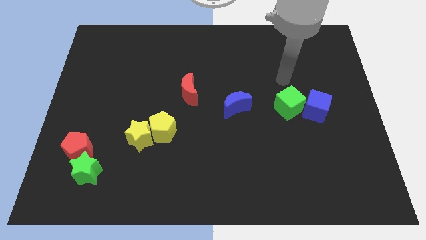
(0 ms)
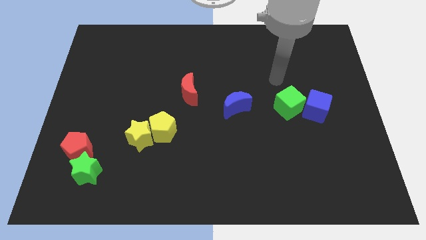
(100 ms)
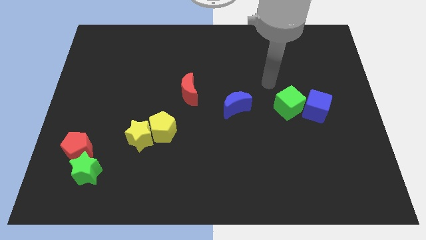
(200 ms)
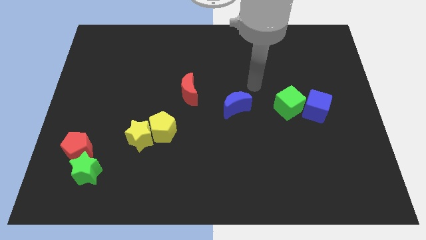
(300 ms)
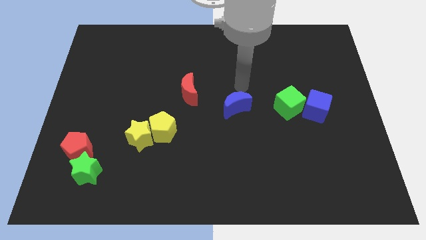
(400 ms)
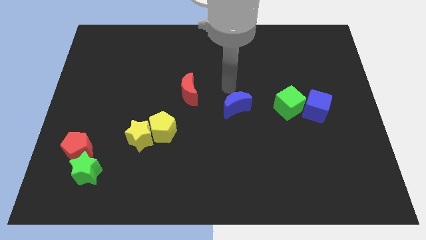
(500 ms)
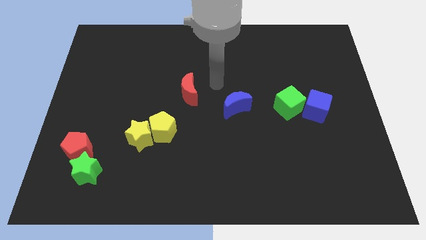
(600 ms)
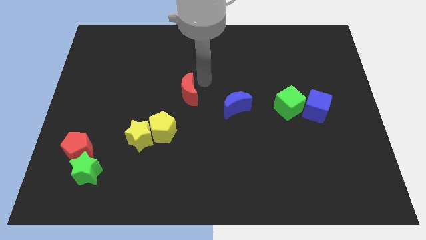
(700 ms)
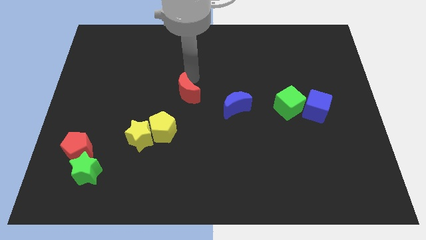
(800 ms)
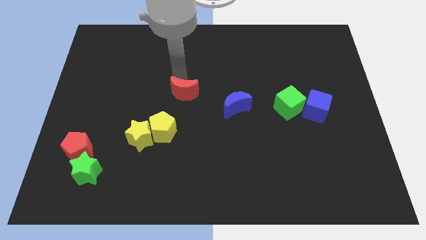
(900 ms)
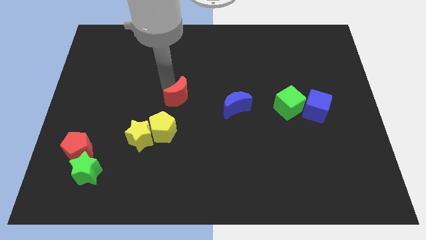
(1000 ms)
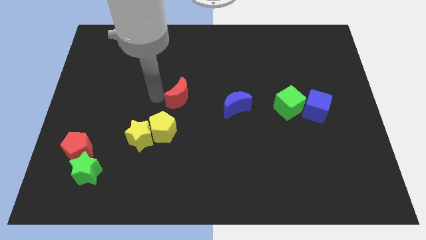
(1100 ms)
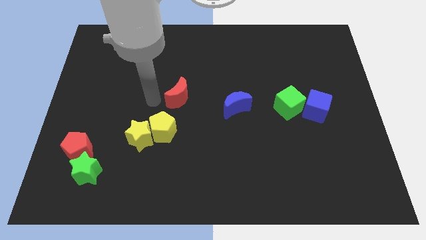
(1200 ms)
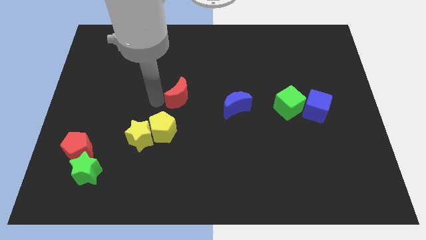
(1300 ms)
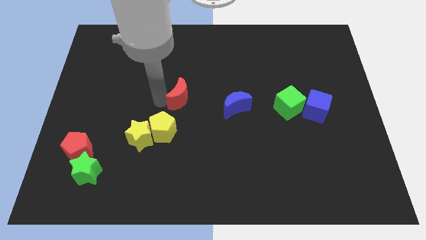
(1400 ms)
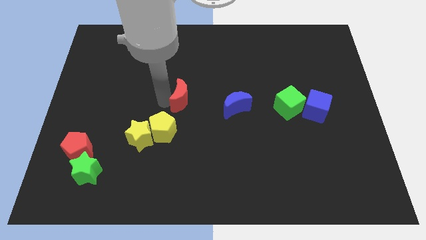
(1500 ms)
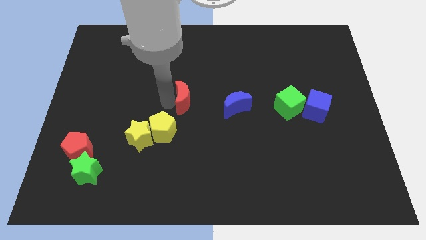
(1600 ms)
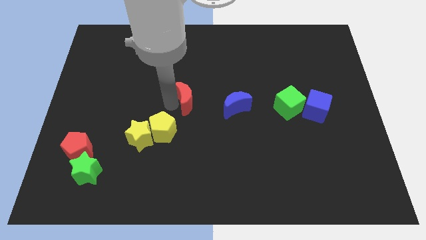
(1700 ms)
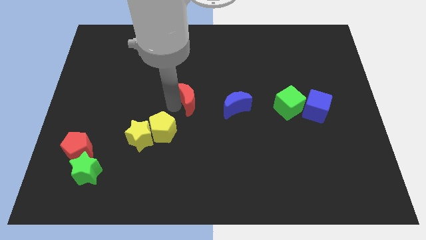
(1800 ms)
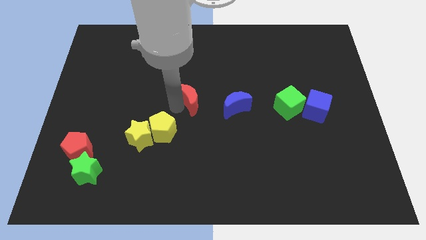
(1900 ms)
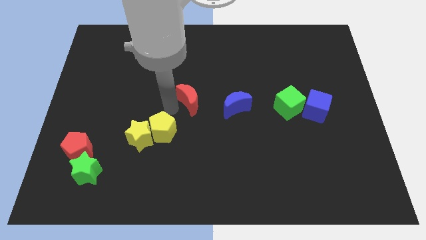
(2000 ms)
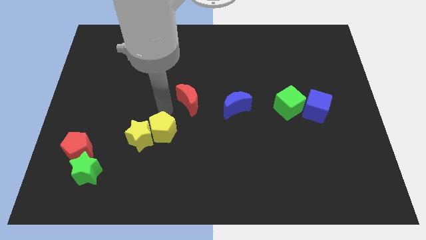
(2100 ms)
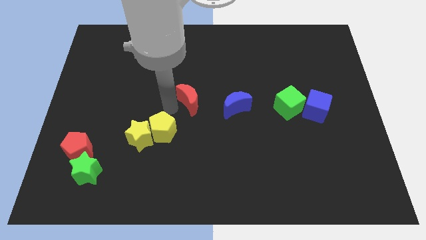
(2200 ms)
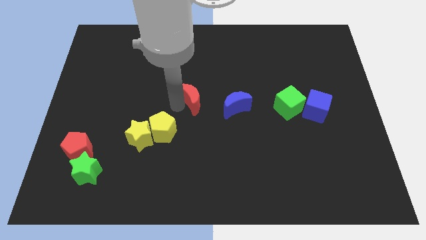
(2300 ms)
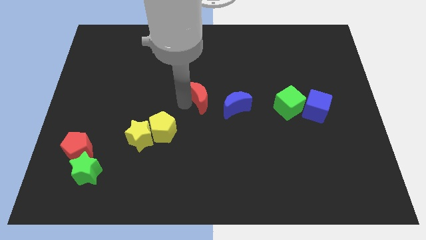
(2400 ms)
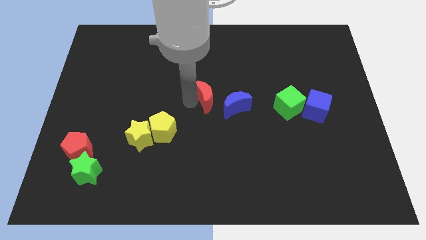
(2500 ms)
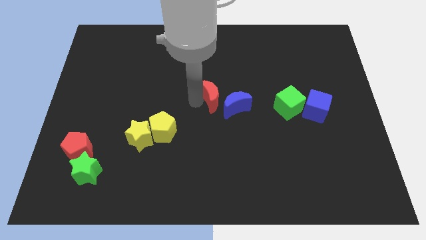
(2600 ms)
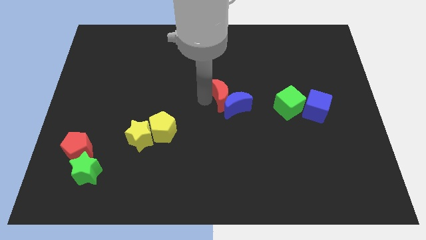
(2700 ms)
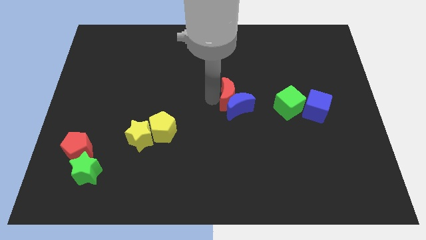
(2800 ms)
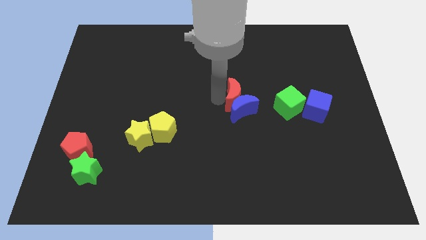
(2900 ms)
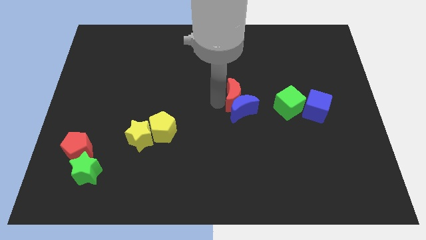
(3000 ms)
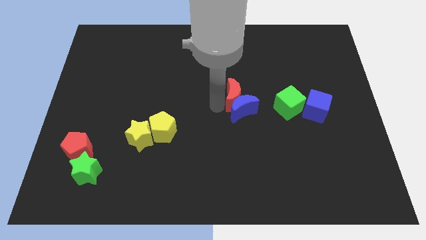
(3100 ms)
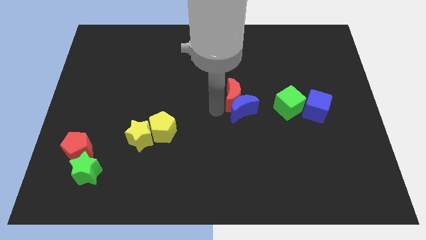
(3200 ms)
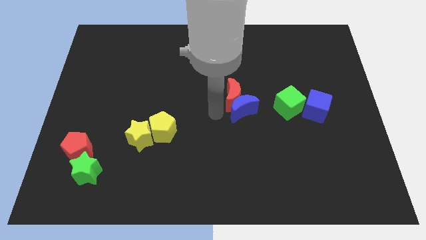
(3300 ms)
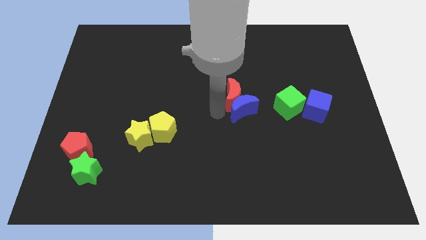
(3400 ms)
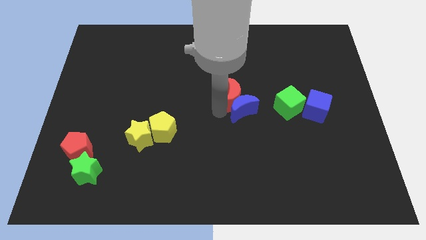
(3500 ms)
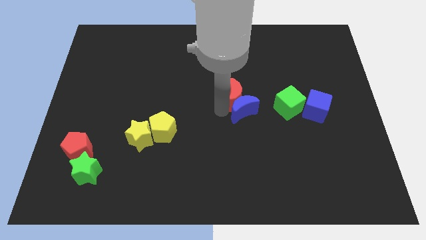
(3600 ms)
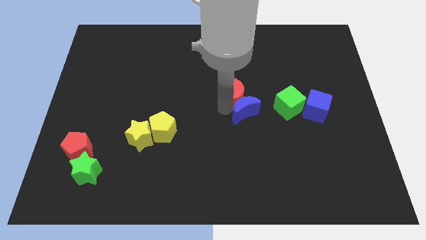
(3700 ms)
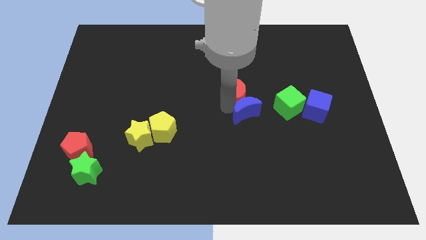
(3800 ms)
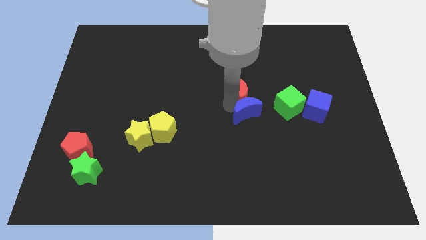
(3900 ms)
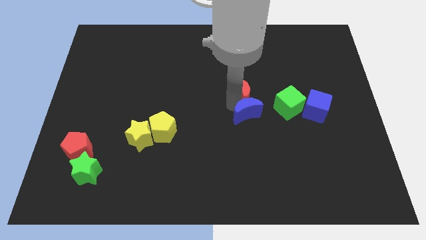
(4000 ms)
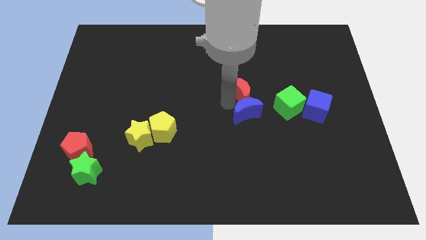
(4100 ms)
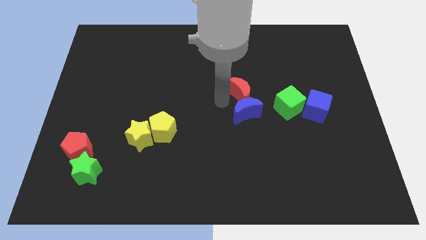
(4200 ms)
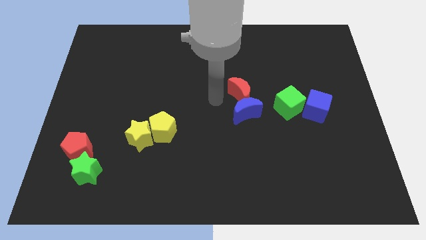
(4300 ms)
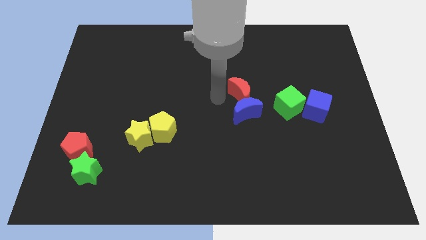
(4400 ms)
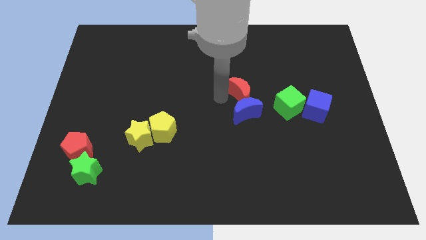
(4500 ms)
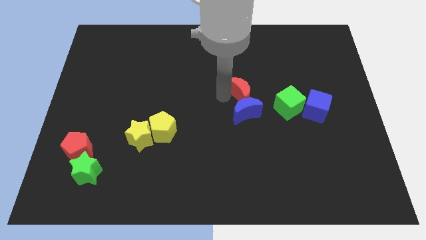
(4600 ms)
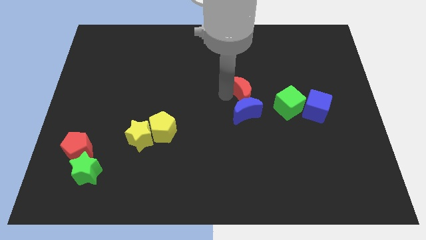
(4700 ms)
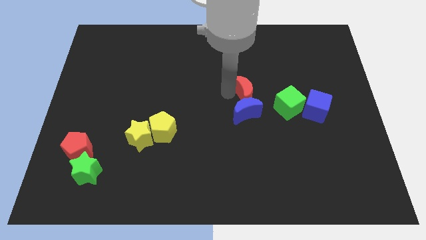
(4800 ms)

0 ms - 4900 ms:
slide the red moon diagonally up and to the left of the green cube

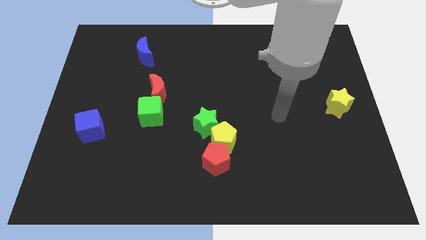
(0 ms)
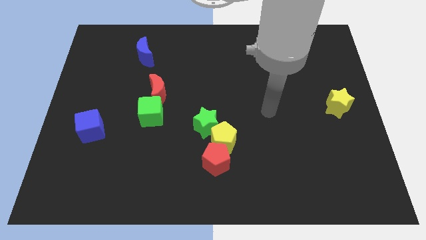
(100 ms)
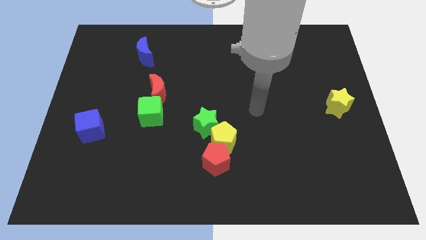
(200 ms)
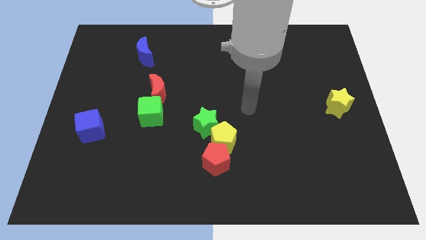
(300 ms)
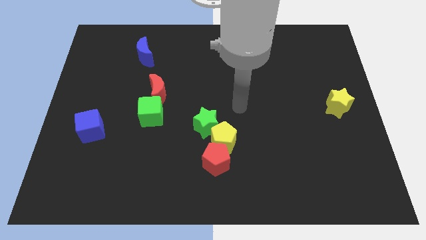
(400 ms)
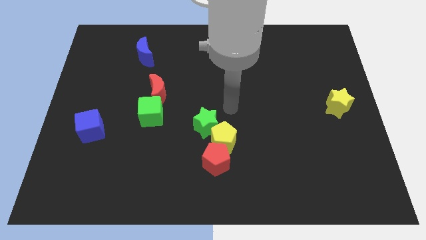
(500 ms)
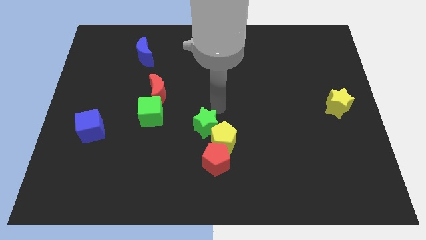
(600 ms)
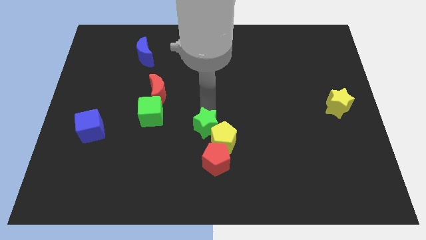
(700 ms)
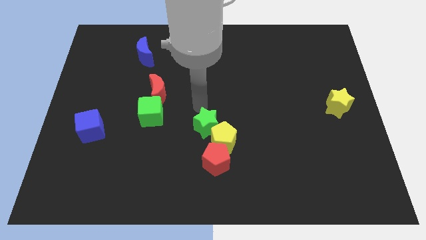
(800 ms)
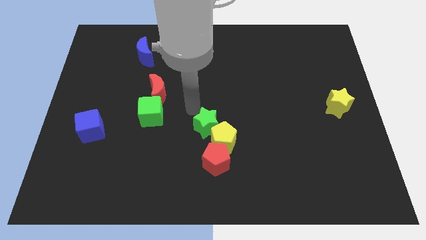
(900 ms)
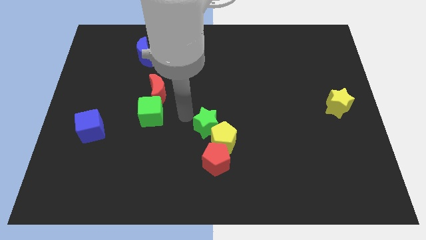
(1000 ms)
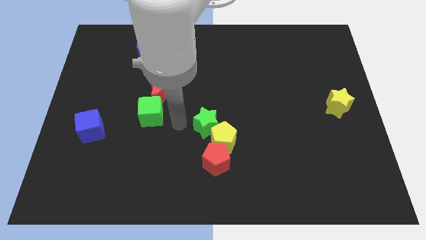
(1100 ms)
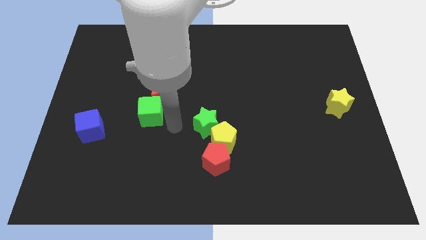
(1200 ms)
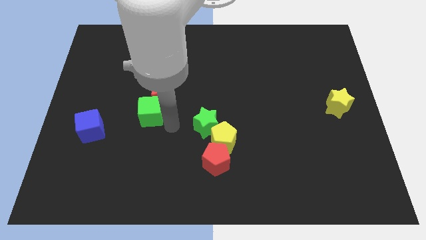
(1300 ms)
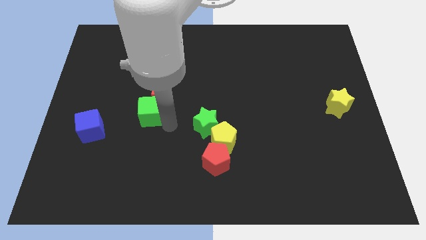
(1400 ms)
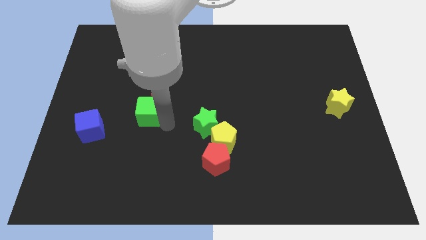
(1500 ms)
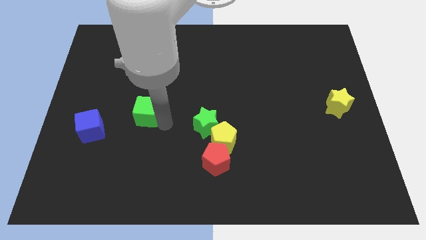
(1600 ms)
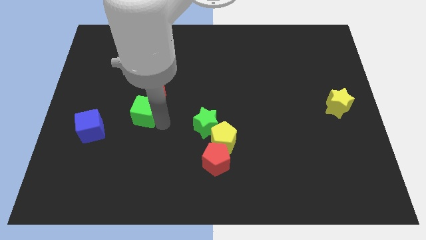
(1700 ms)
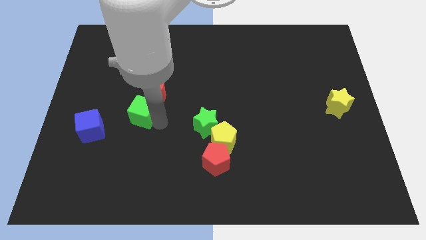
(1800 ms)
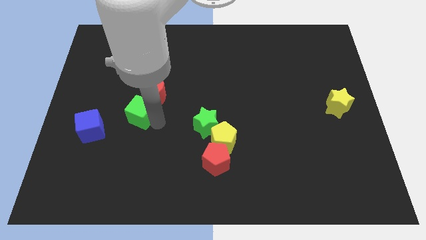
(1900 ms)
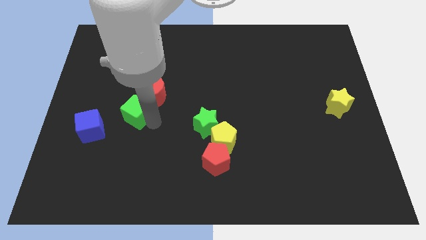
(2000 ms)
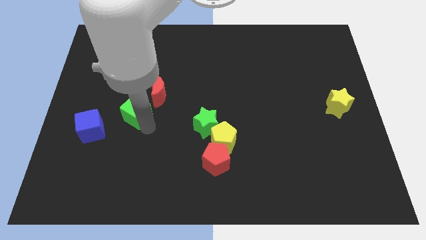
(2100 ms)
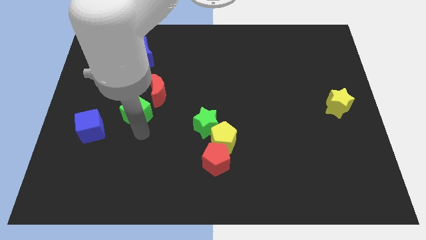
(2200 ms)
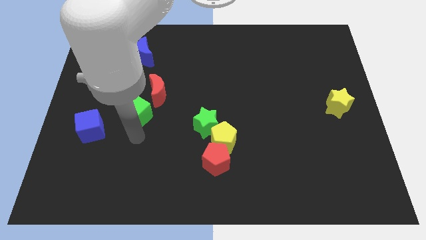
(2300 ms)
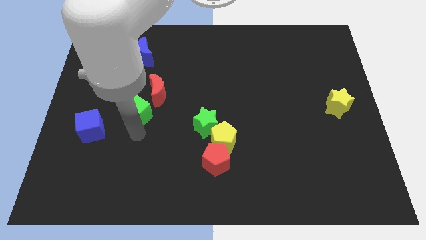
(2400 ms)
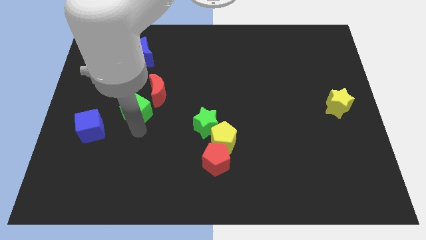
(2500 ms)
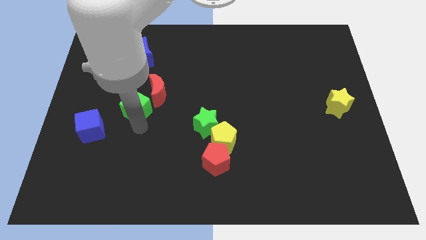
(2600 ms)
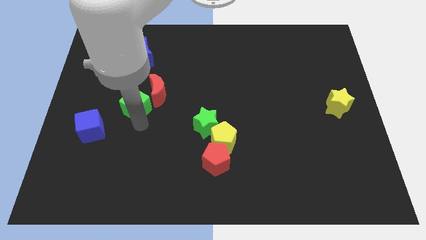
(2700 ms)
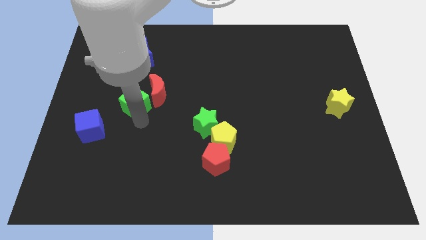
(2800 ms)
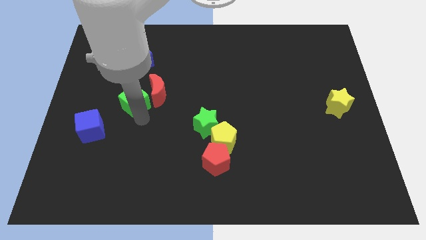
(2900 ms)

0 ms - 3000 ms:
put the green cube to the bottom side of the blue moon
